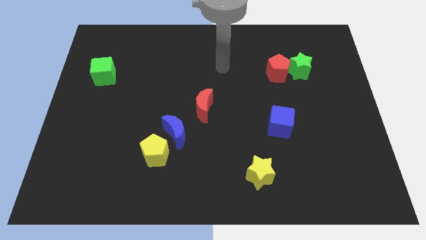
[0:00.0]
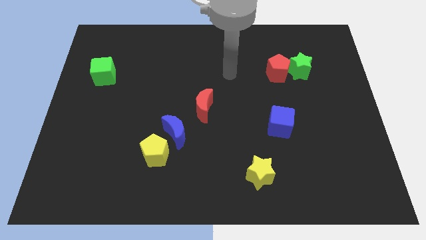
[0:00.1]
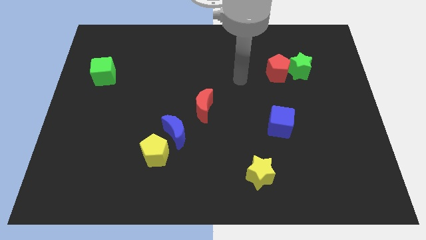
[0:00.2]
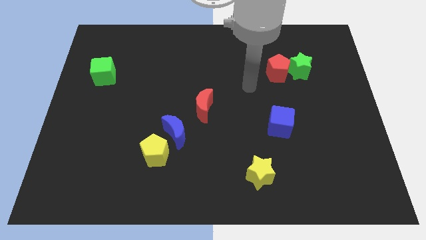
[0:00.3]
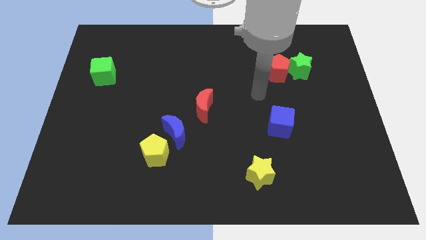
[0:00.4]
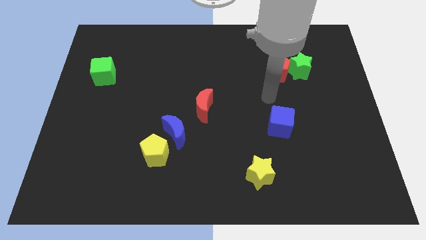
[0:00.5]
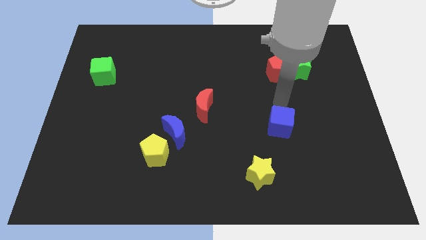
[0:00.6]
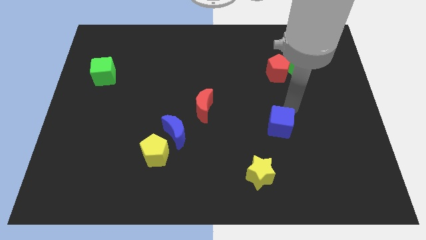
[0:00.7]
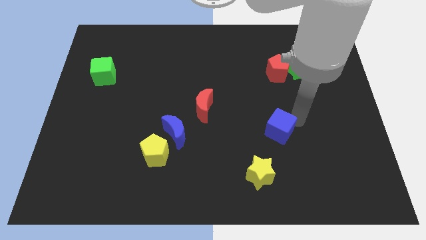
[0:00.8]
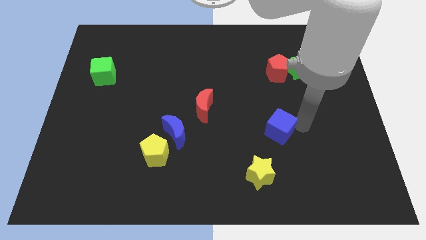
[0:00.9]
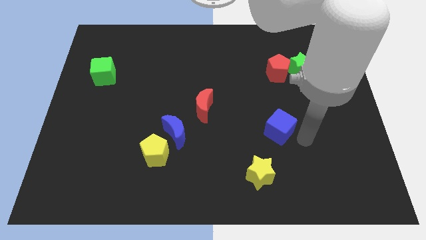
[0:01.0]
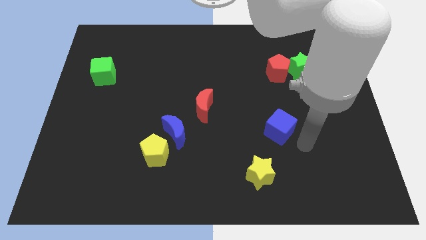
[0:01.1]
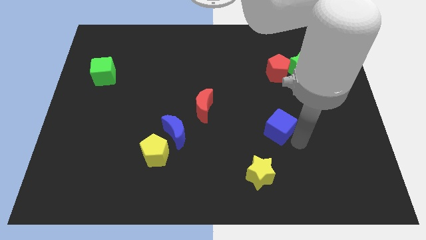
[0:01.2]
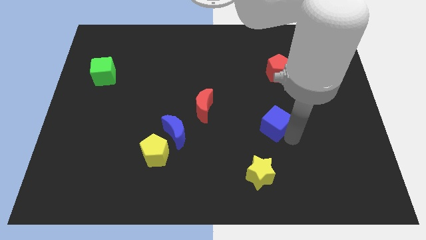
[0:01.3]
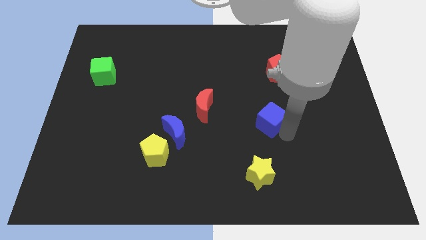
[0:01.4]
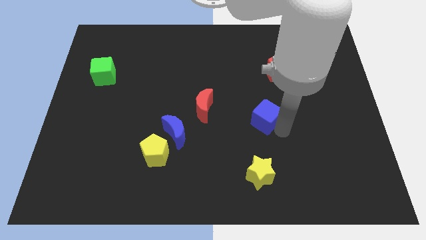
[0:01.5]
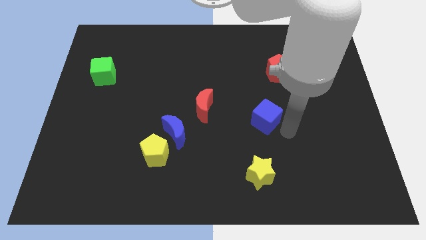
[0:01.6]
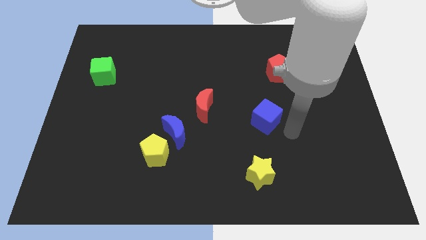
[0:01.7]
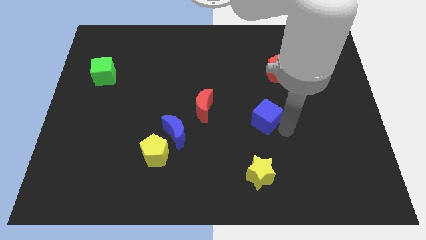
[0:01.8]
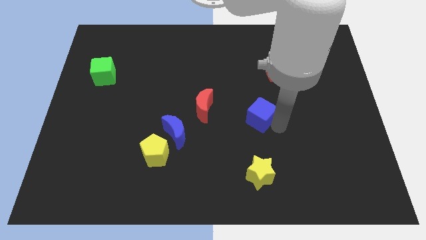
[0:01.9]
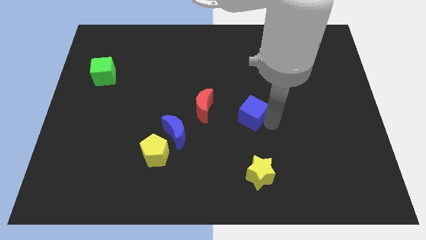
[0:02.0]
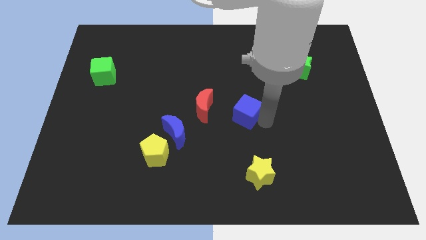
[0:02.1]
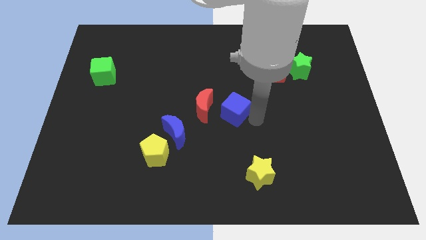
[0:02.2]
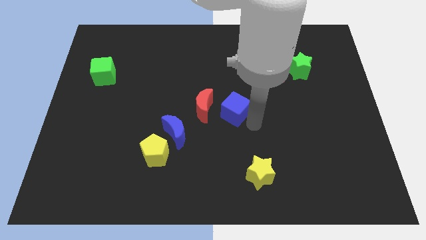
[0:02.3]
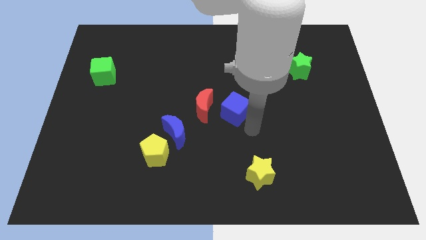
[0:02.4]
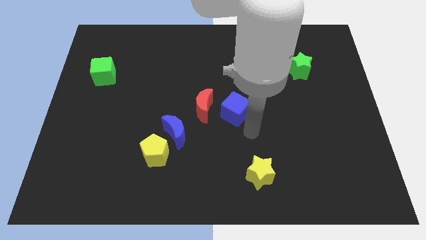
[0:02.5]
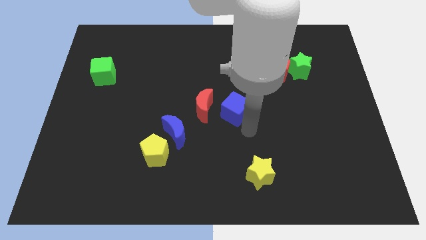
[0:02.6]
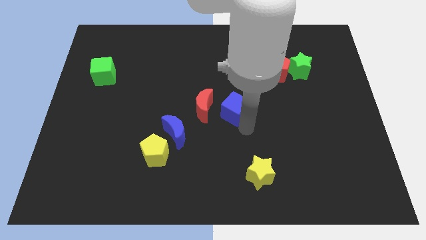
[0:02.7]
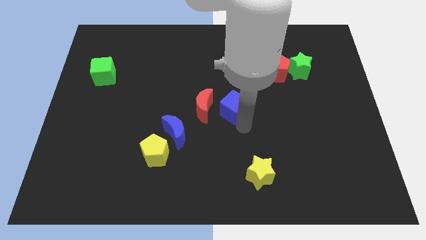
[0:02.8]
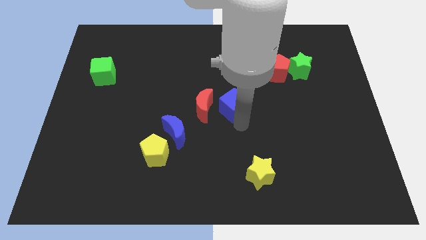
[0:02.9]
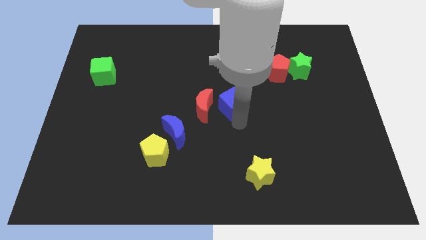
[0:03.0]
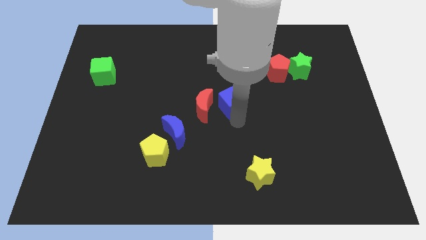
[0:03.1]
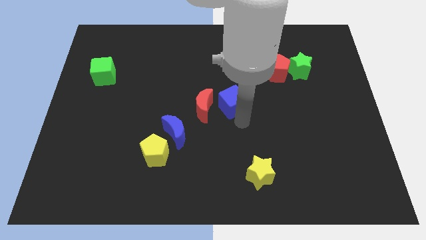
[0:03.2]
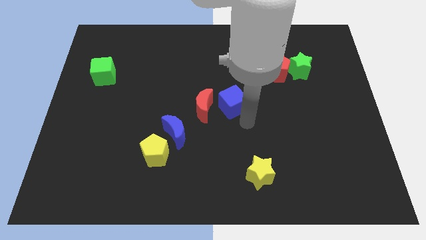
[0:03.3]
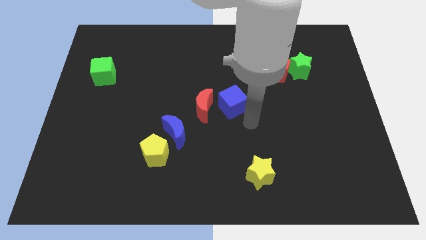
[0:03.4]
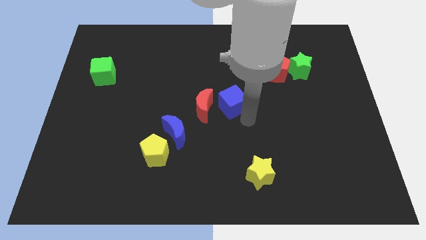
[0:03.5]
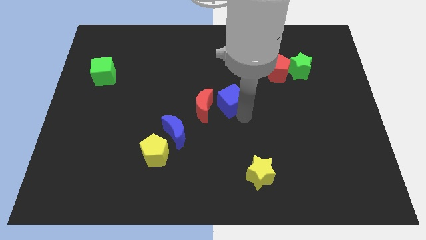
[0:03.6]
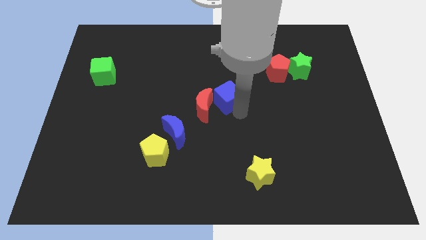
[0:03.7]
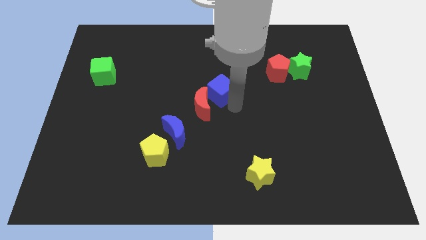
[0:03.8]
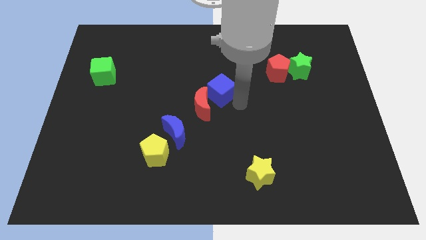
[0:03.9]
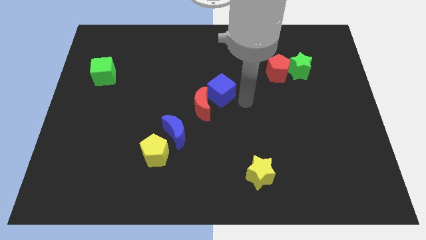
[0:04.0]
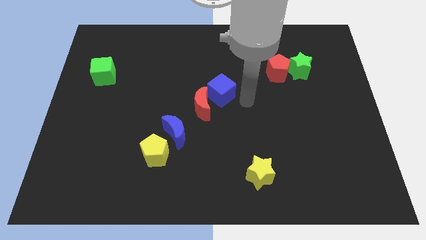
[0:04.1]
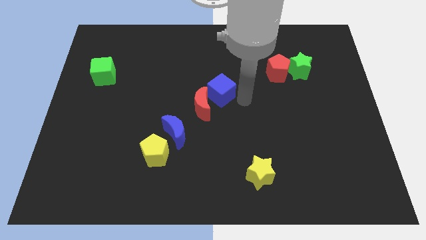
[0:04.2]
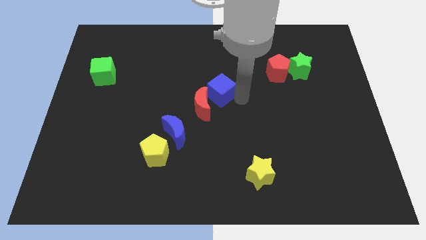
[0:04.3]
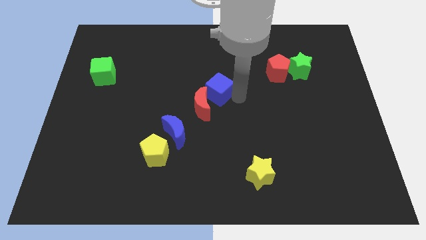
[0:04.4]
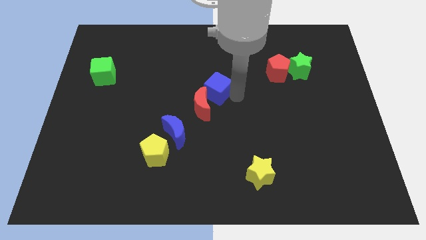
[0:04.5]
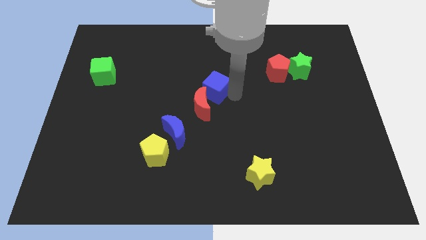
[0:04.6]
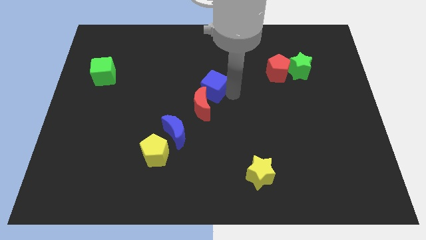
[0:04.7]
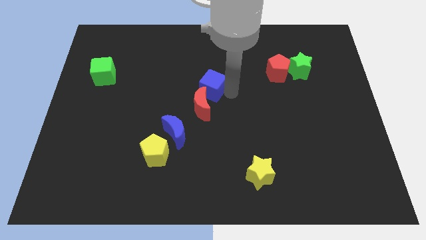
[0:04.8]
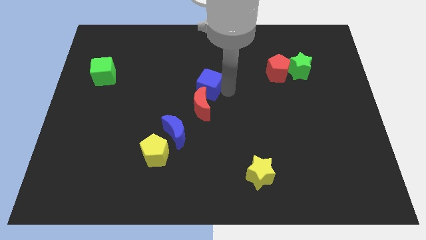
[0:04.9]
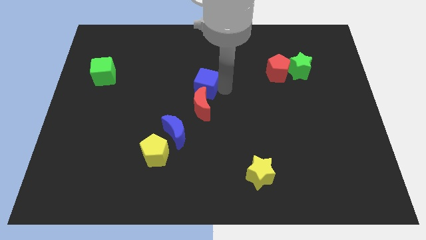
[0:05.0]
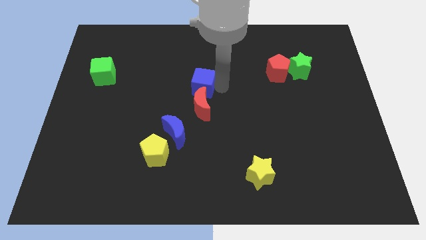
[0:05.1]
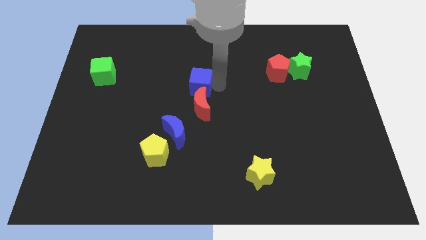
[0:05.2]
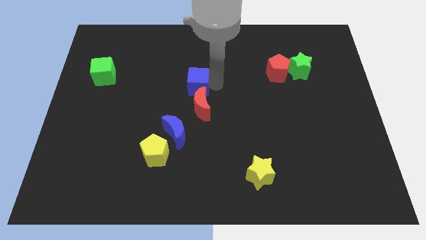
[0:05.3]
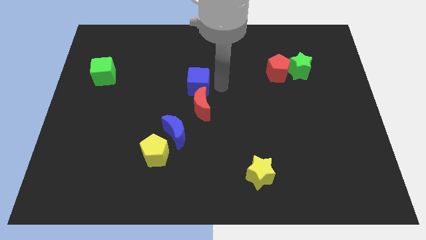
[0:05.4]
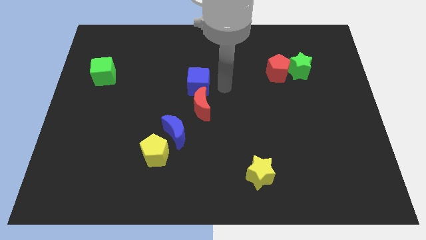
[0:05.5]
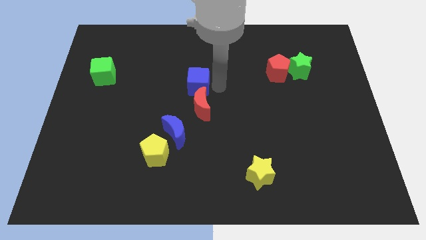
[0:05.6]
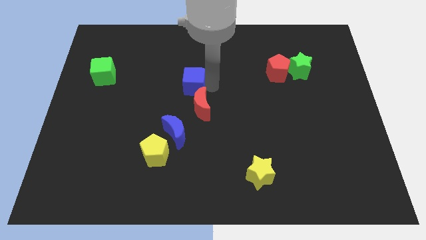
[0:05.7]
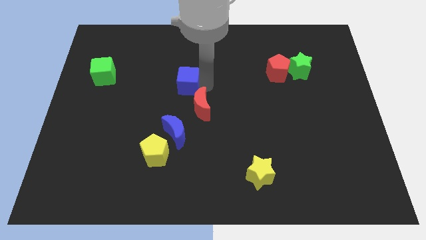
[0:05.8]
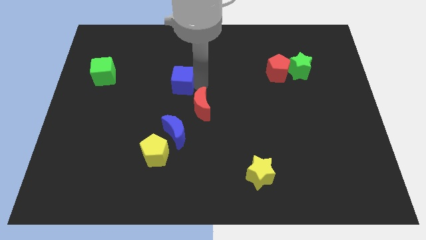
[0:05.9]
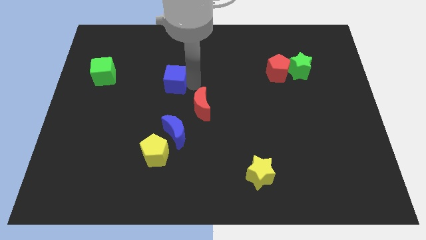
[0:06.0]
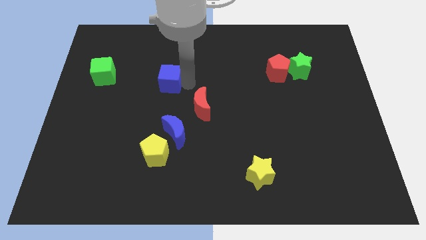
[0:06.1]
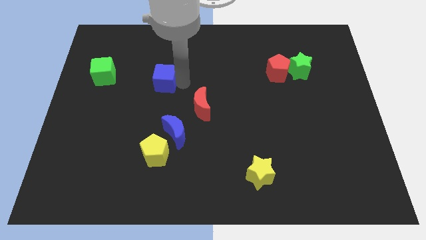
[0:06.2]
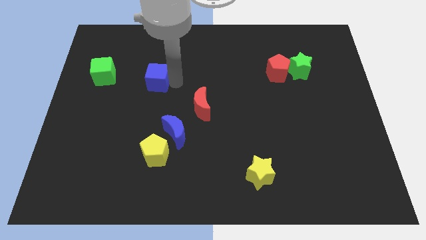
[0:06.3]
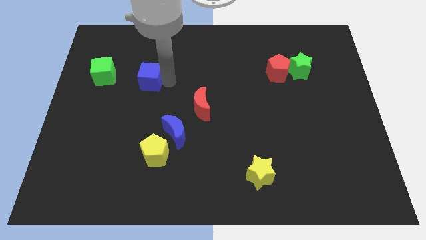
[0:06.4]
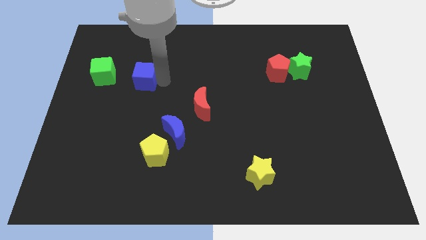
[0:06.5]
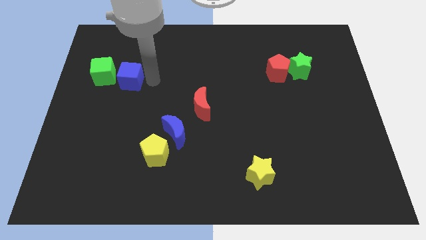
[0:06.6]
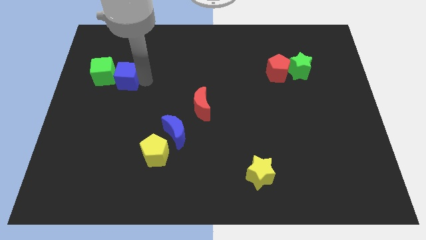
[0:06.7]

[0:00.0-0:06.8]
move the blue cube close to the green cube

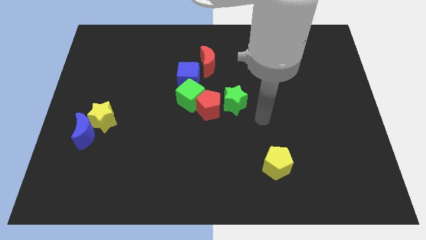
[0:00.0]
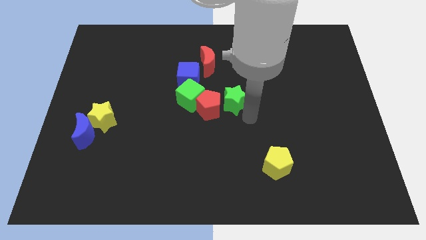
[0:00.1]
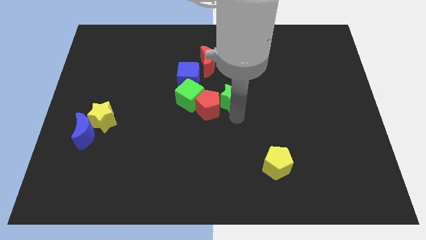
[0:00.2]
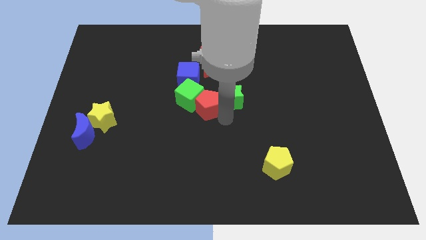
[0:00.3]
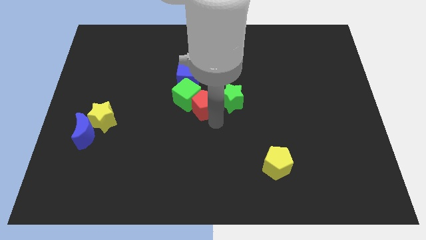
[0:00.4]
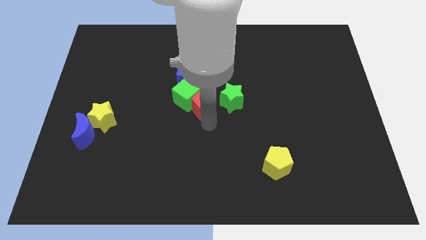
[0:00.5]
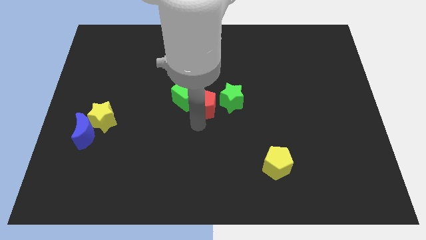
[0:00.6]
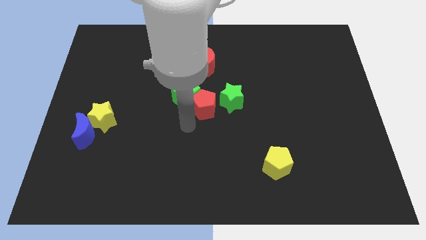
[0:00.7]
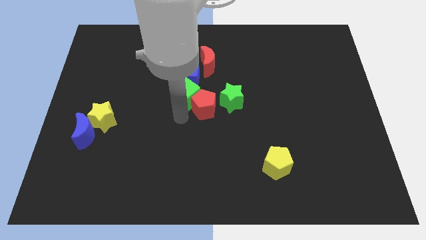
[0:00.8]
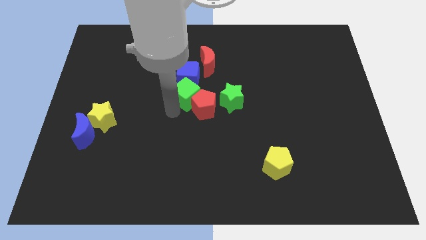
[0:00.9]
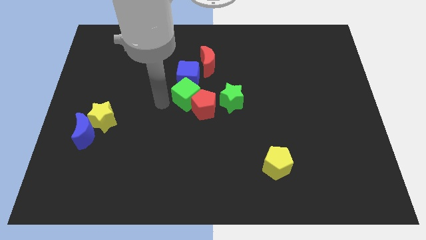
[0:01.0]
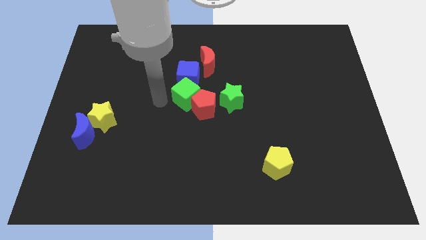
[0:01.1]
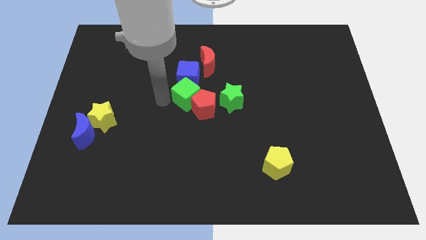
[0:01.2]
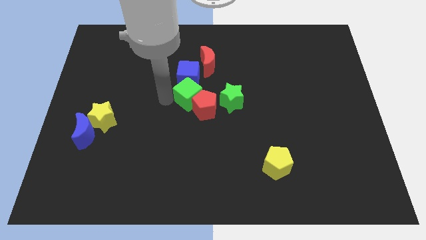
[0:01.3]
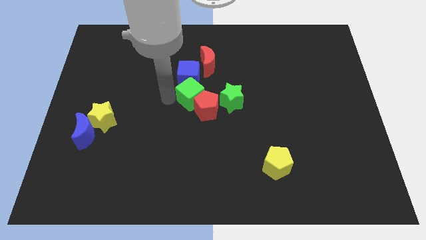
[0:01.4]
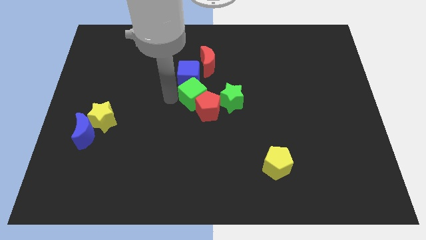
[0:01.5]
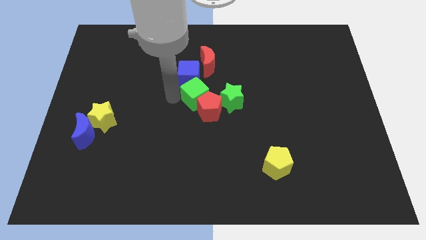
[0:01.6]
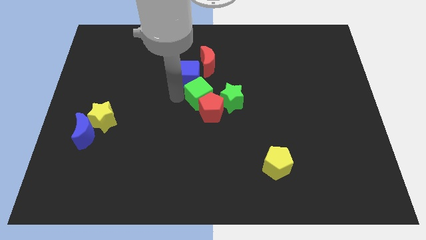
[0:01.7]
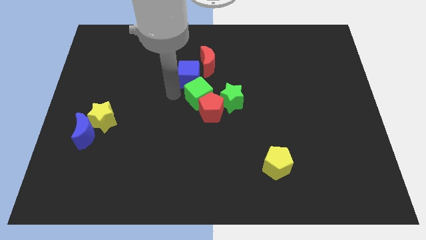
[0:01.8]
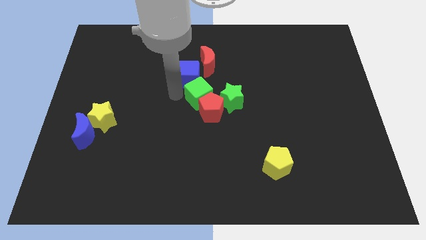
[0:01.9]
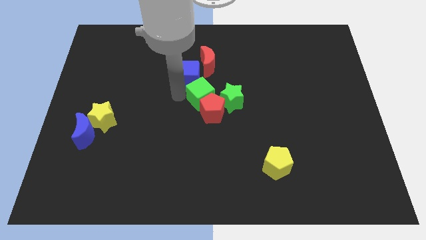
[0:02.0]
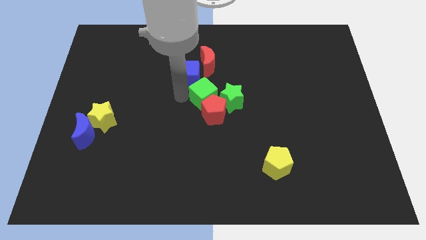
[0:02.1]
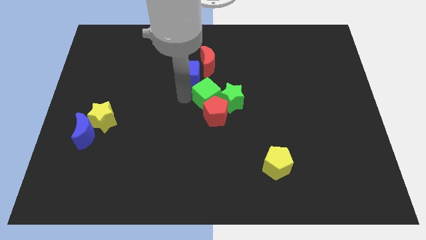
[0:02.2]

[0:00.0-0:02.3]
put the green cube close to the green star
